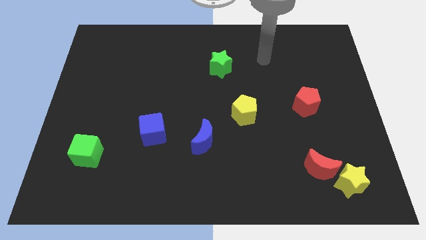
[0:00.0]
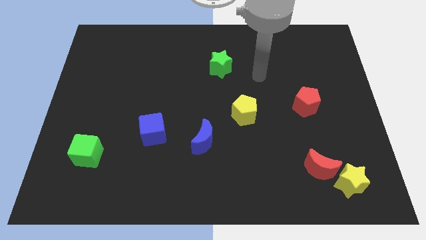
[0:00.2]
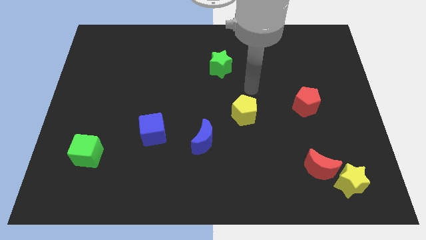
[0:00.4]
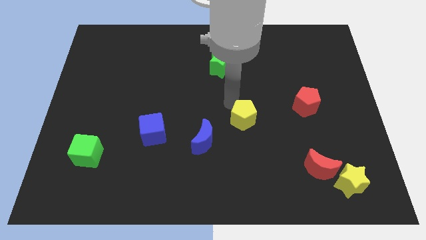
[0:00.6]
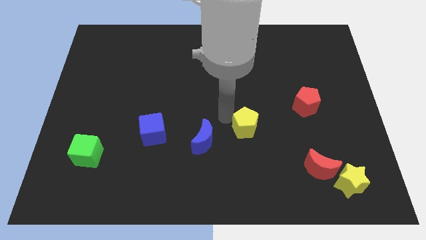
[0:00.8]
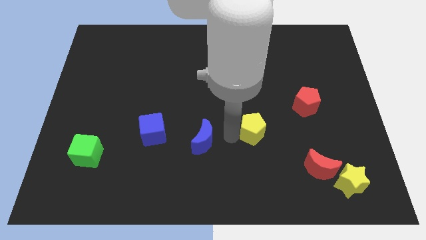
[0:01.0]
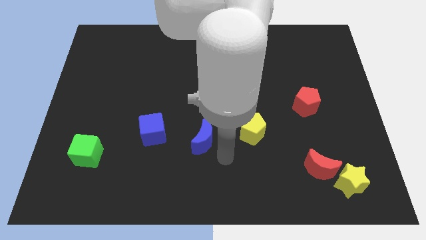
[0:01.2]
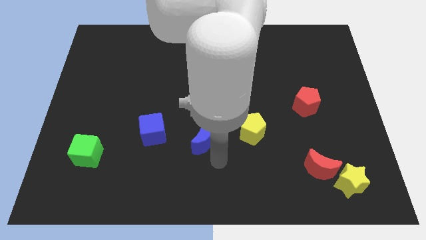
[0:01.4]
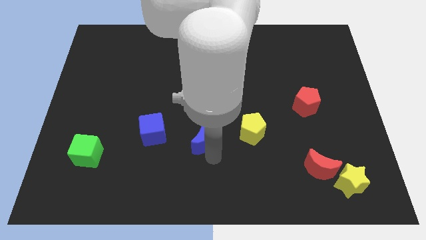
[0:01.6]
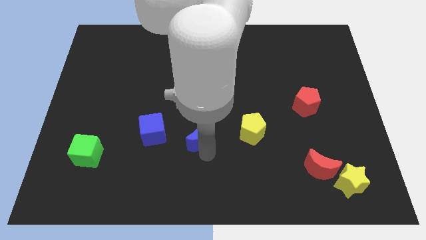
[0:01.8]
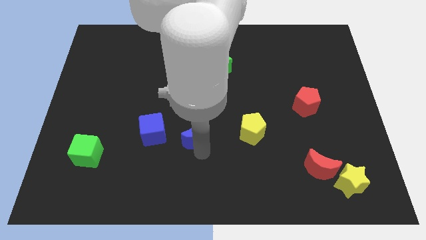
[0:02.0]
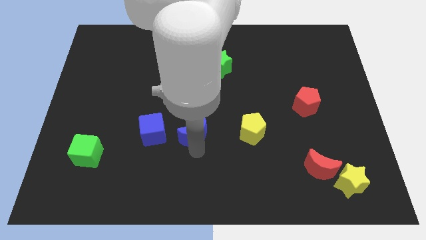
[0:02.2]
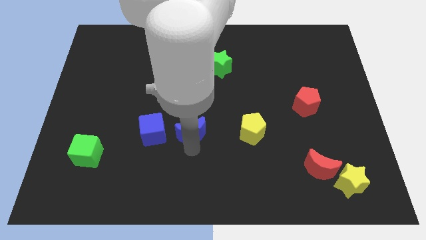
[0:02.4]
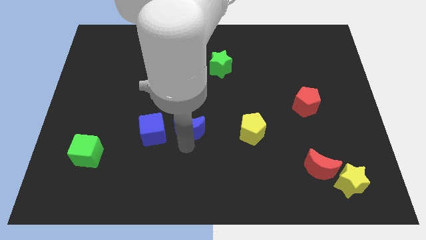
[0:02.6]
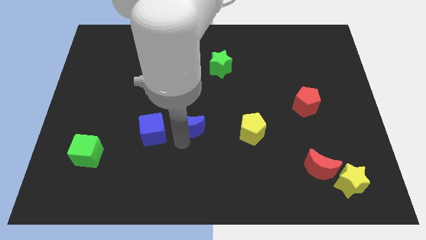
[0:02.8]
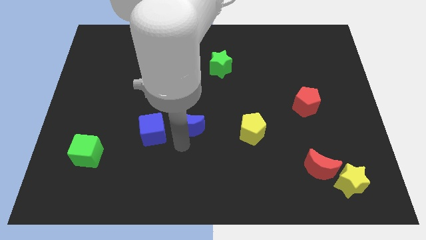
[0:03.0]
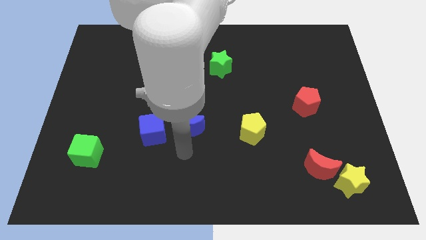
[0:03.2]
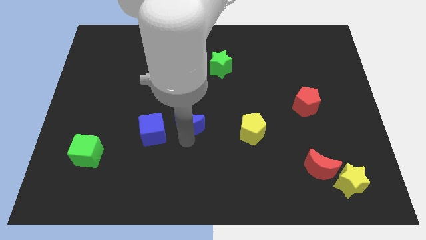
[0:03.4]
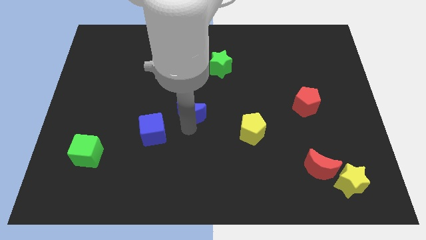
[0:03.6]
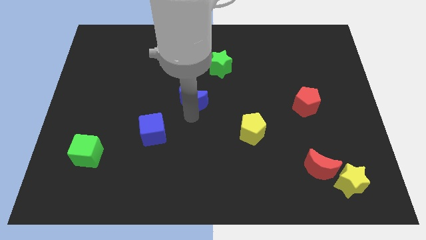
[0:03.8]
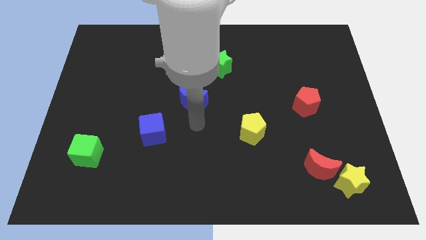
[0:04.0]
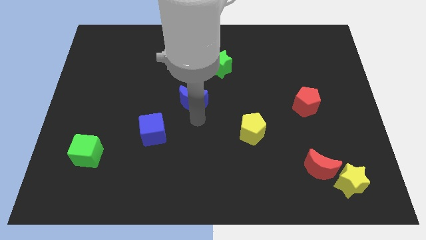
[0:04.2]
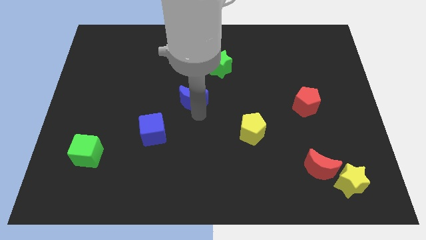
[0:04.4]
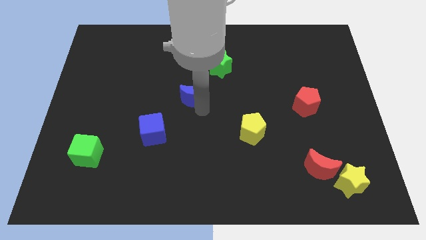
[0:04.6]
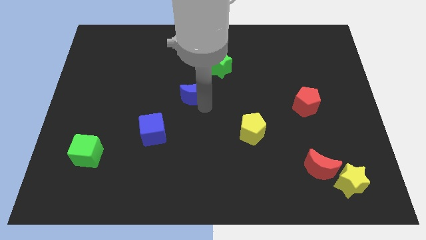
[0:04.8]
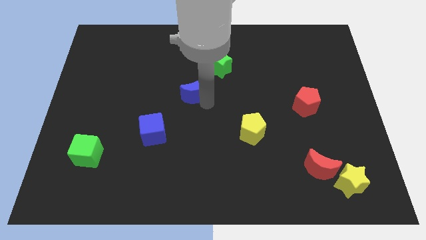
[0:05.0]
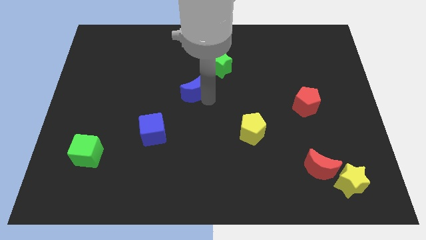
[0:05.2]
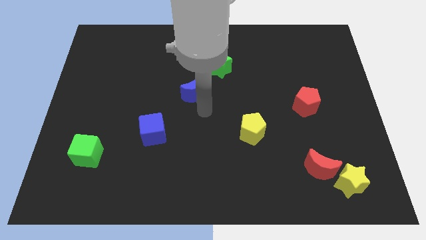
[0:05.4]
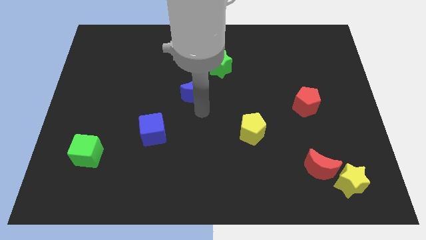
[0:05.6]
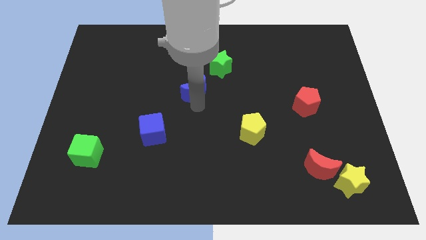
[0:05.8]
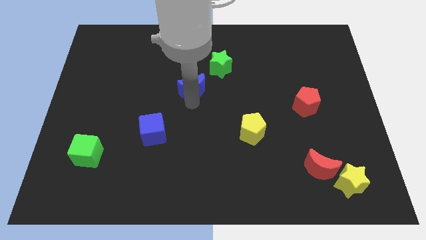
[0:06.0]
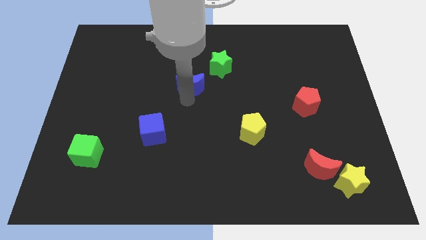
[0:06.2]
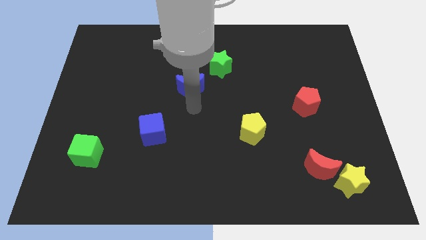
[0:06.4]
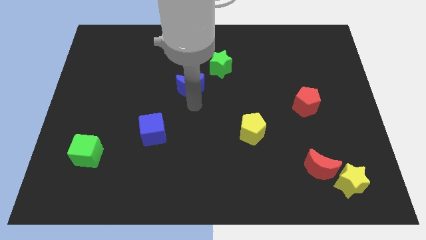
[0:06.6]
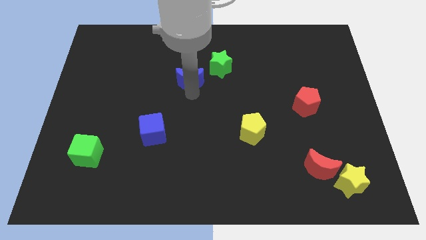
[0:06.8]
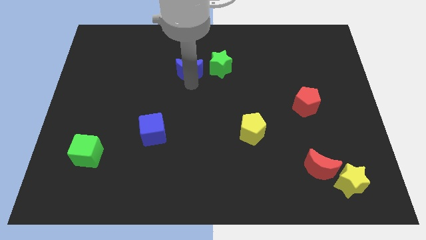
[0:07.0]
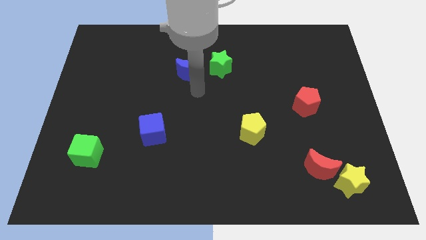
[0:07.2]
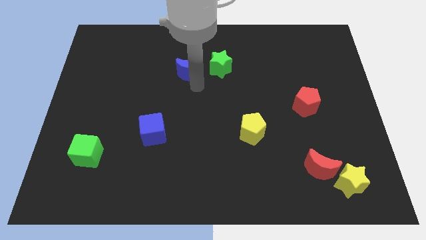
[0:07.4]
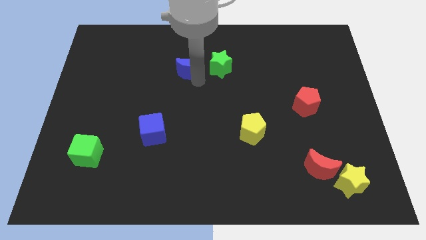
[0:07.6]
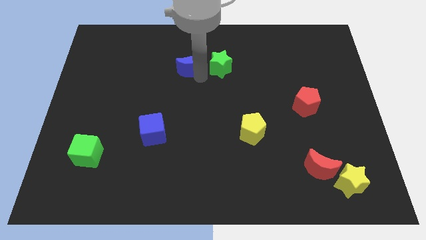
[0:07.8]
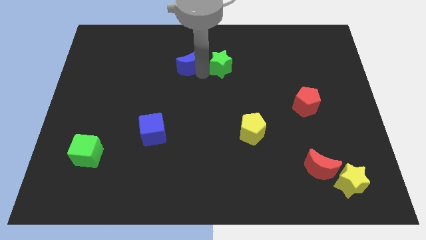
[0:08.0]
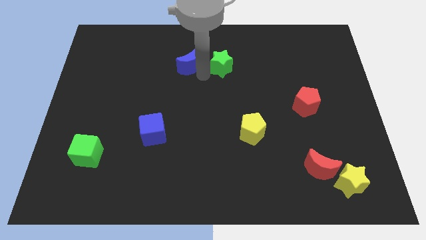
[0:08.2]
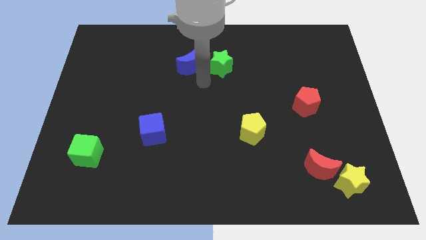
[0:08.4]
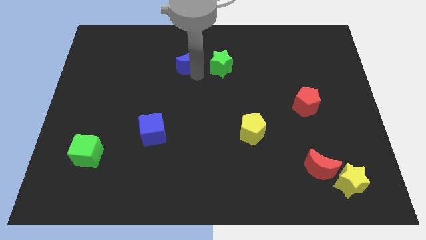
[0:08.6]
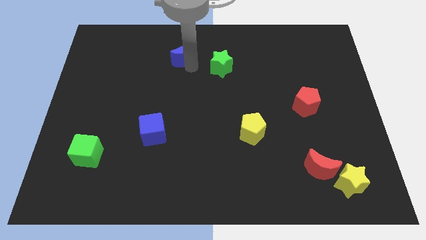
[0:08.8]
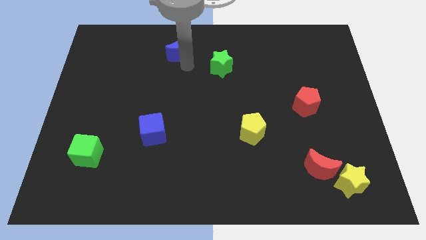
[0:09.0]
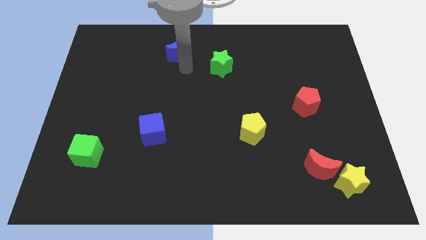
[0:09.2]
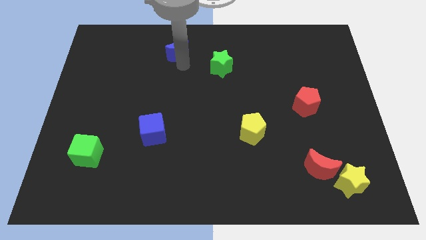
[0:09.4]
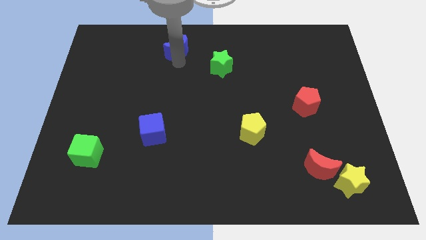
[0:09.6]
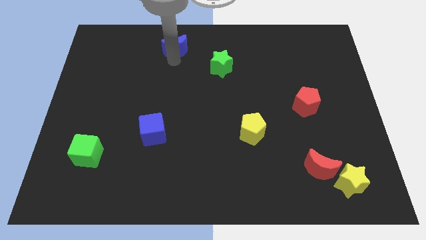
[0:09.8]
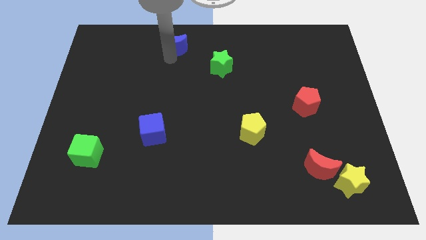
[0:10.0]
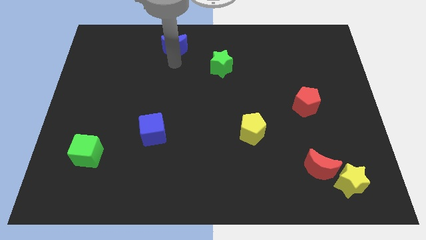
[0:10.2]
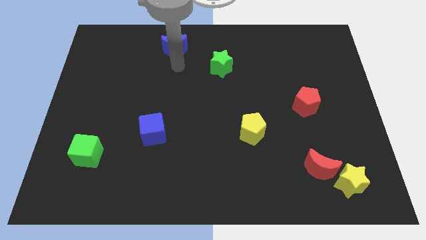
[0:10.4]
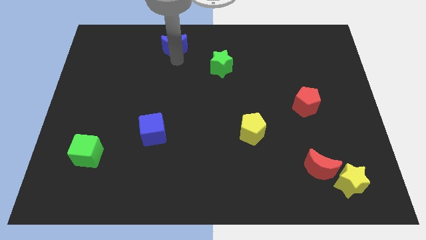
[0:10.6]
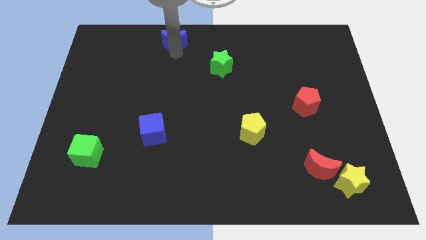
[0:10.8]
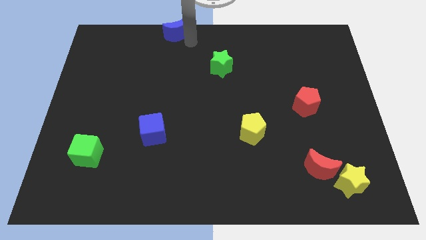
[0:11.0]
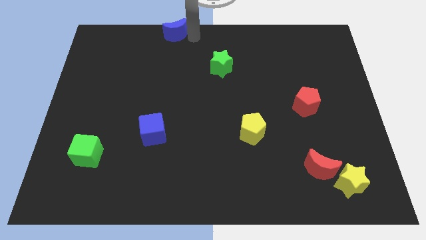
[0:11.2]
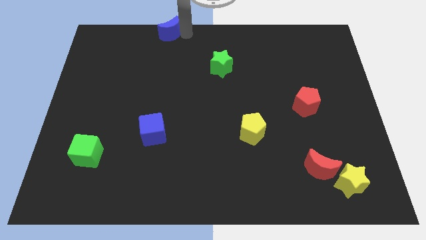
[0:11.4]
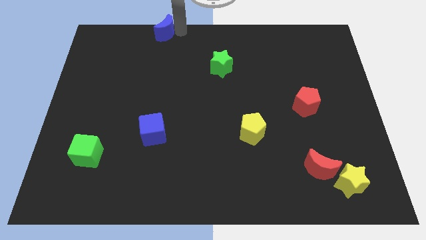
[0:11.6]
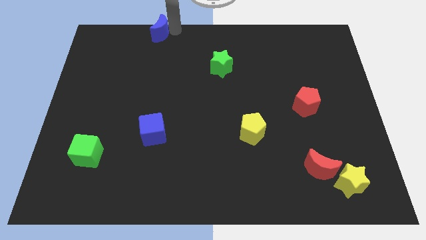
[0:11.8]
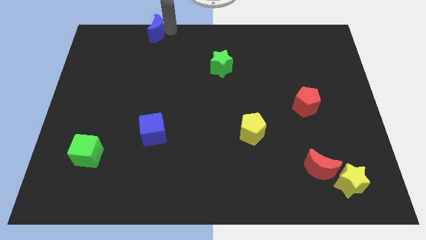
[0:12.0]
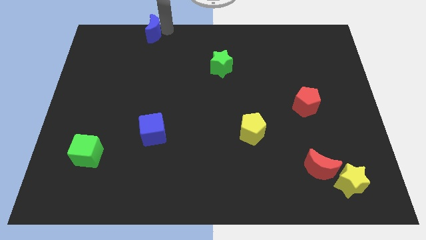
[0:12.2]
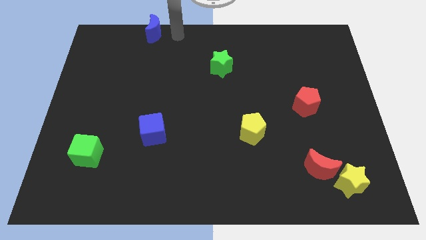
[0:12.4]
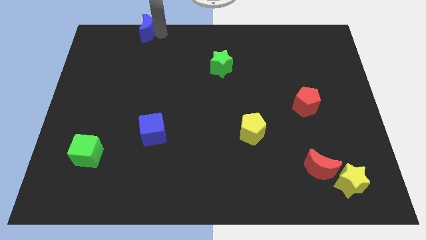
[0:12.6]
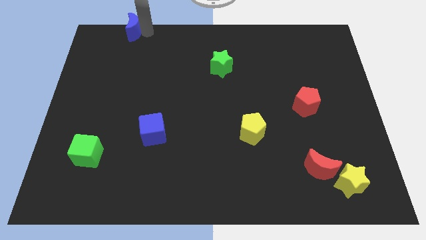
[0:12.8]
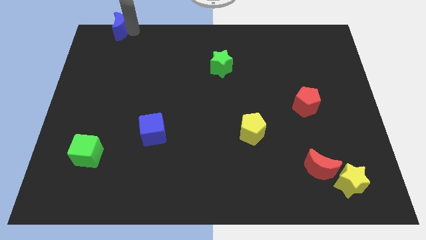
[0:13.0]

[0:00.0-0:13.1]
move the blue moon to the top left of the board
